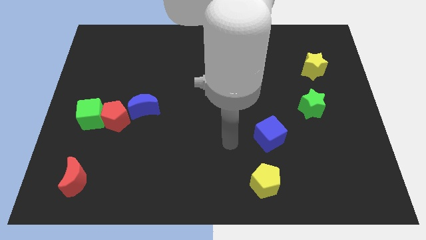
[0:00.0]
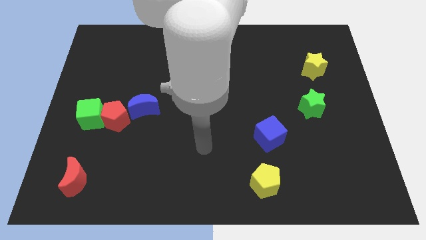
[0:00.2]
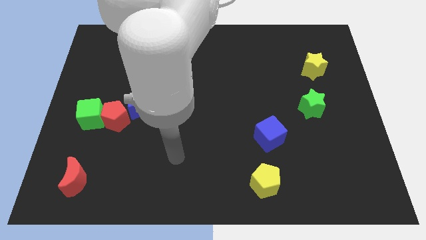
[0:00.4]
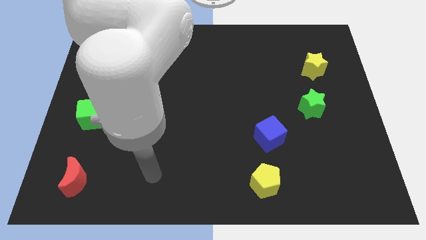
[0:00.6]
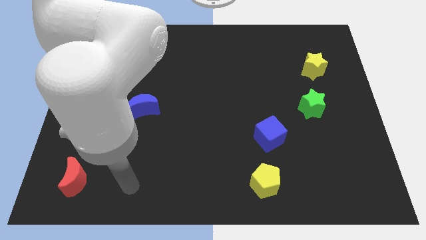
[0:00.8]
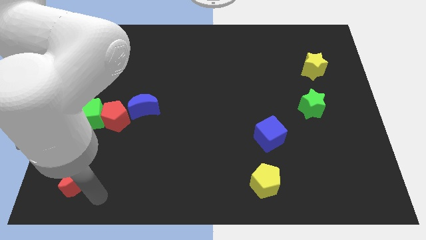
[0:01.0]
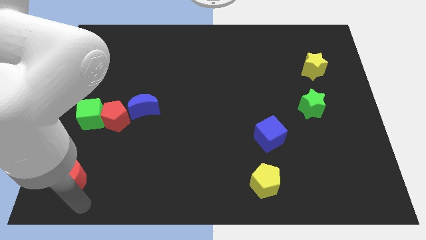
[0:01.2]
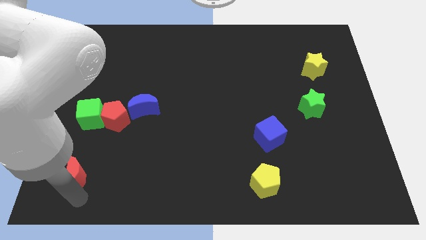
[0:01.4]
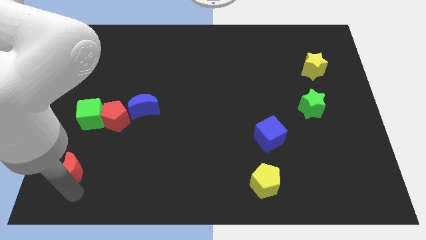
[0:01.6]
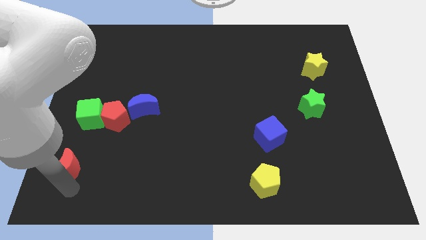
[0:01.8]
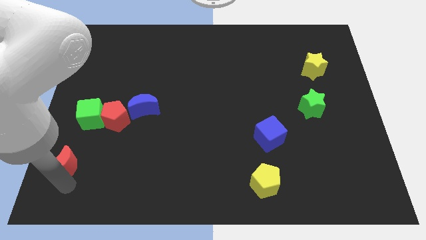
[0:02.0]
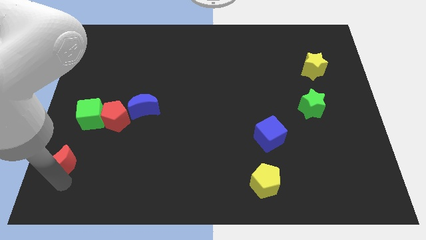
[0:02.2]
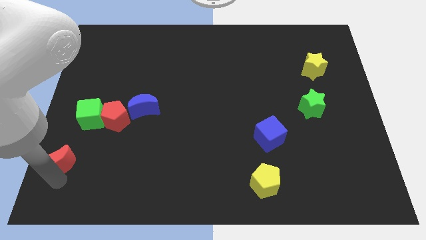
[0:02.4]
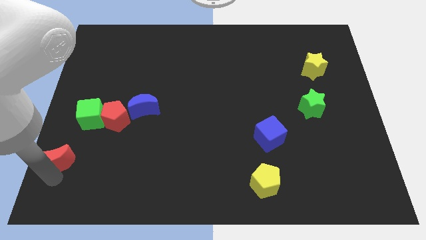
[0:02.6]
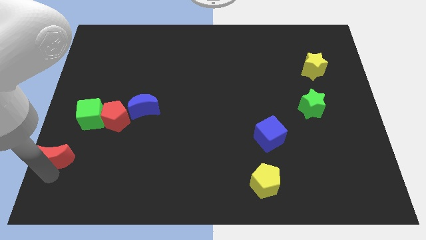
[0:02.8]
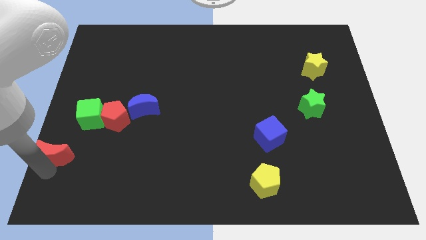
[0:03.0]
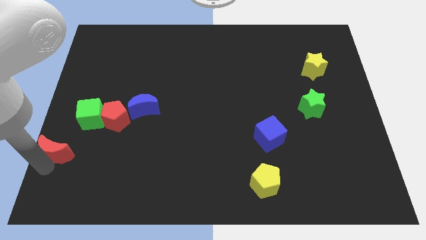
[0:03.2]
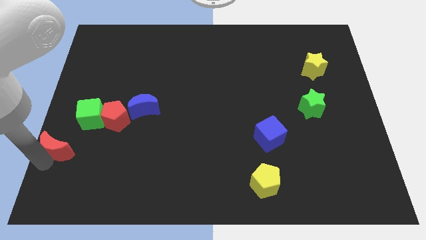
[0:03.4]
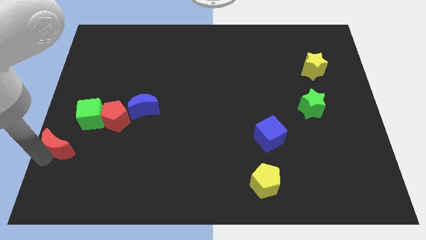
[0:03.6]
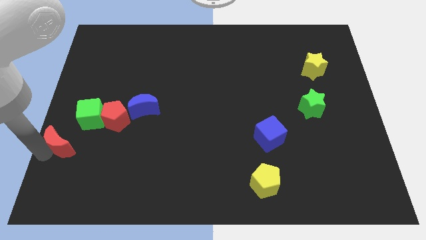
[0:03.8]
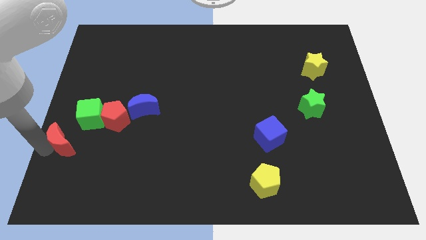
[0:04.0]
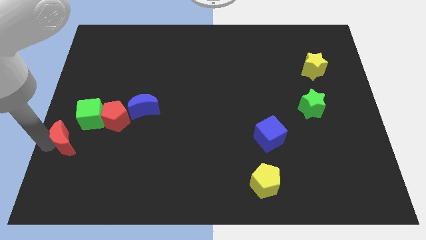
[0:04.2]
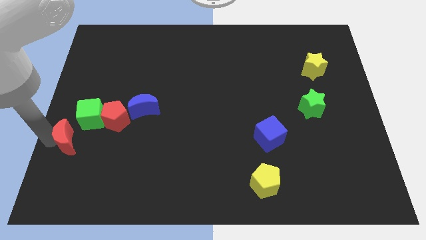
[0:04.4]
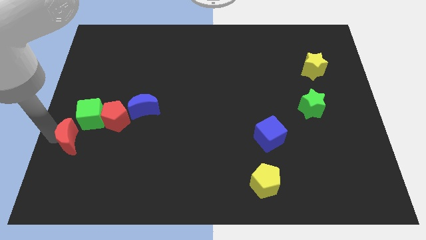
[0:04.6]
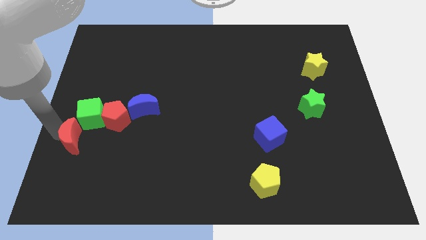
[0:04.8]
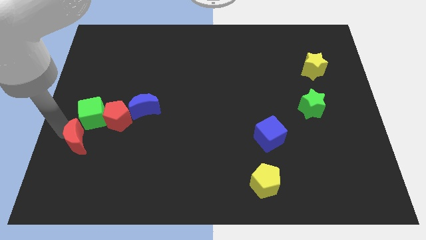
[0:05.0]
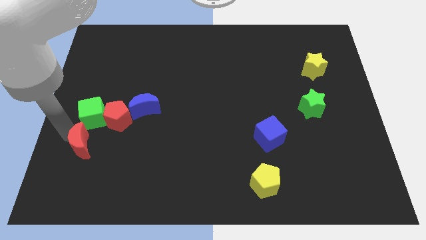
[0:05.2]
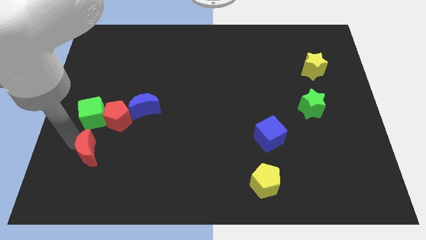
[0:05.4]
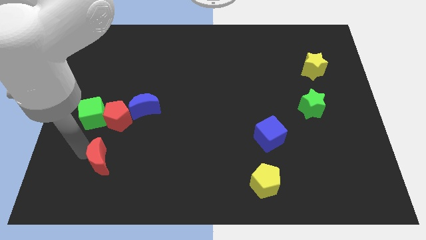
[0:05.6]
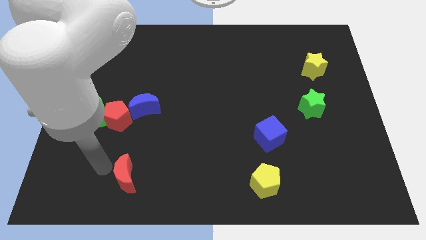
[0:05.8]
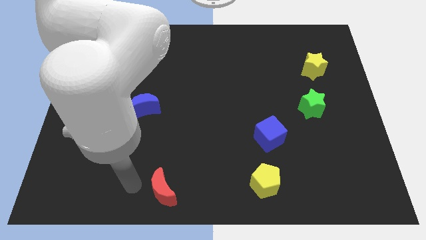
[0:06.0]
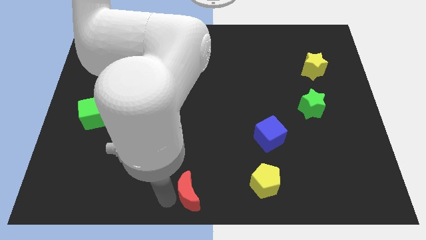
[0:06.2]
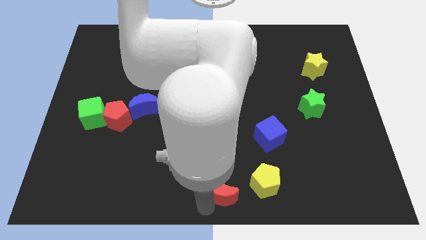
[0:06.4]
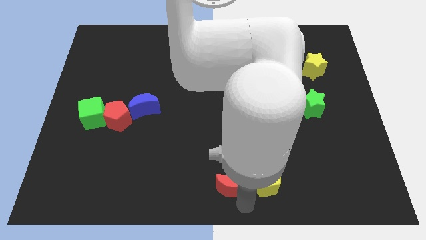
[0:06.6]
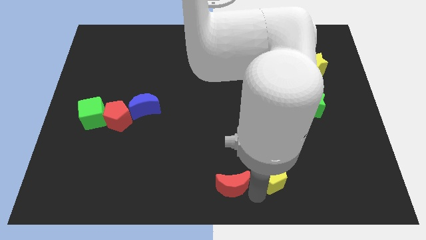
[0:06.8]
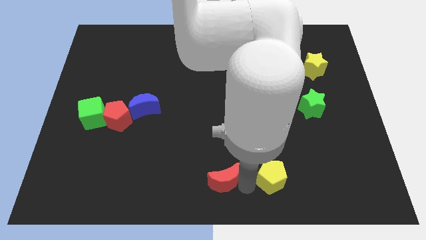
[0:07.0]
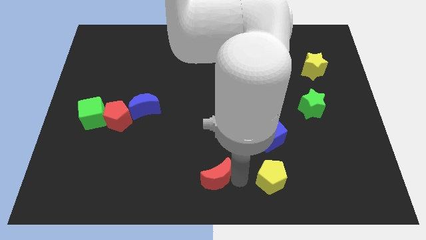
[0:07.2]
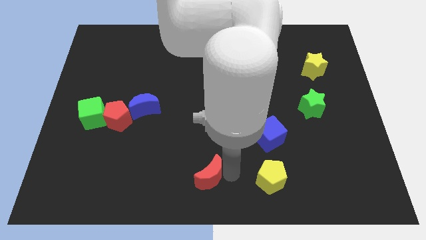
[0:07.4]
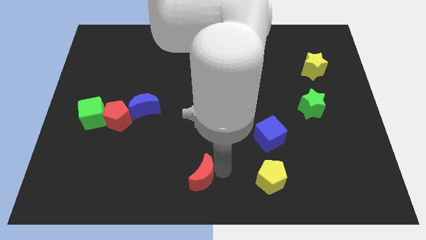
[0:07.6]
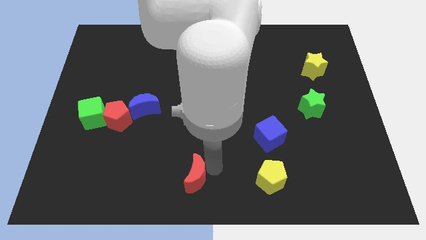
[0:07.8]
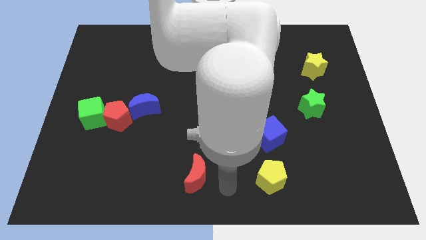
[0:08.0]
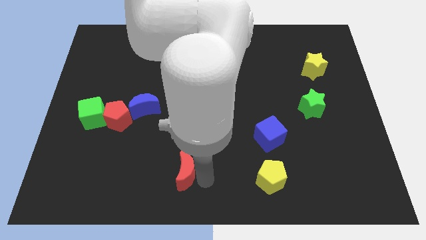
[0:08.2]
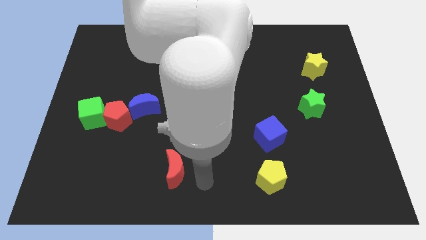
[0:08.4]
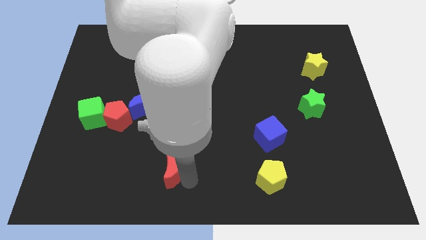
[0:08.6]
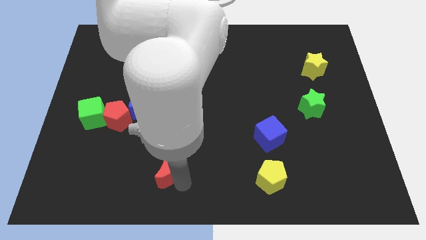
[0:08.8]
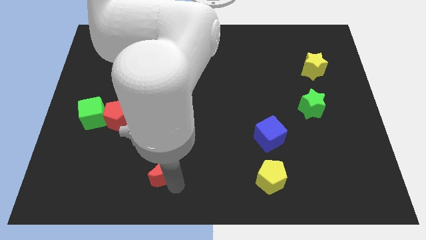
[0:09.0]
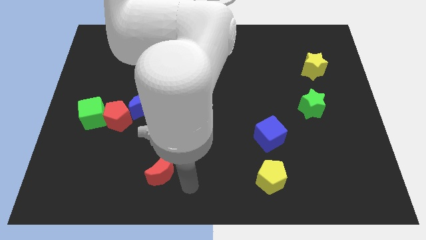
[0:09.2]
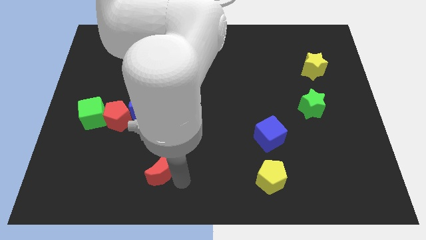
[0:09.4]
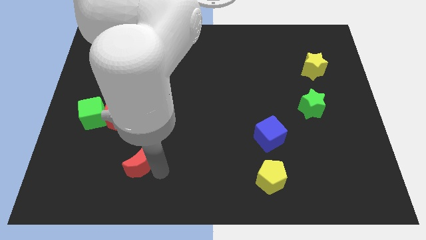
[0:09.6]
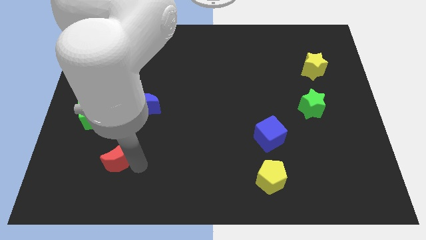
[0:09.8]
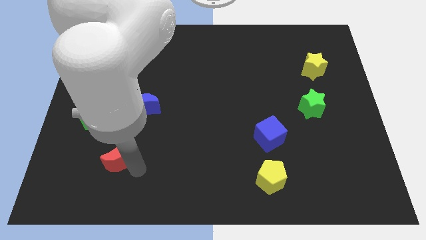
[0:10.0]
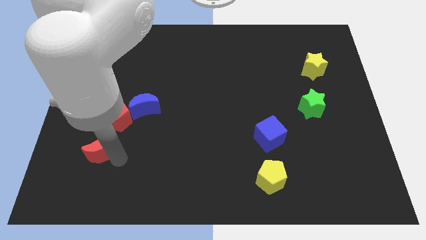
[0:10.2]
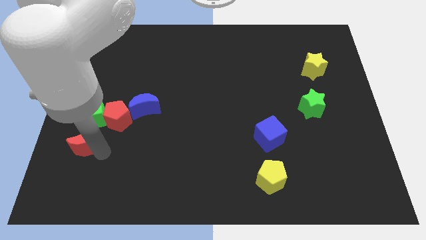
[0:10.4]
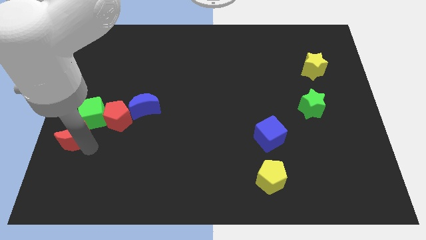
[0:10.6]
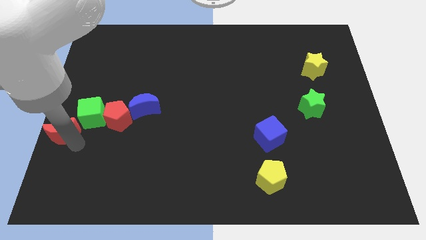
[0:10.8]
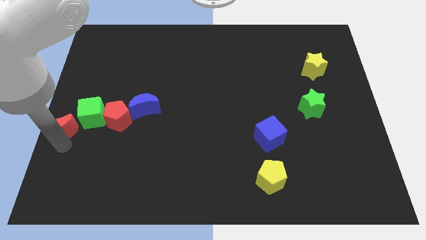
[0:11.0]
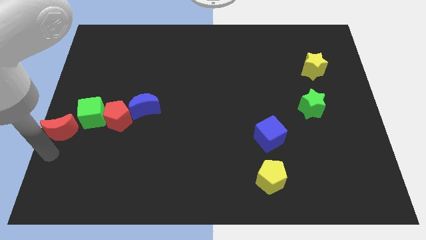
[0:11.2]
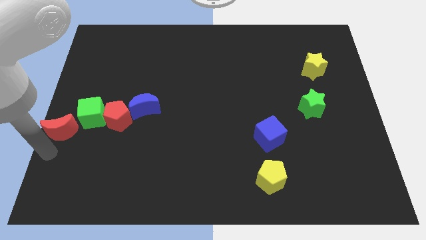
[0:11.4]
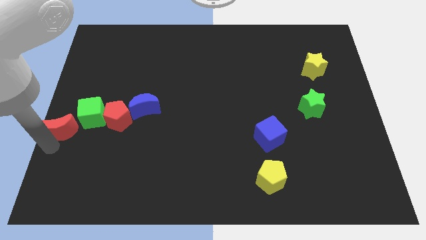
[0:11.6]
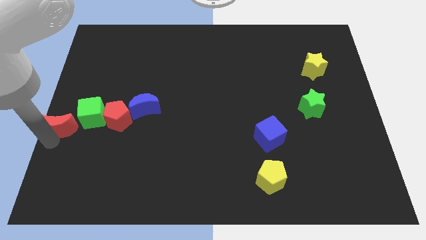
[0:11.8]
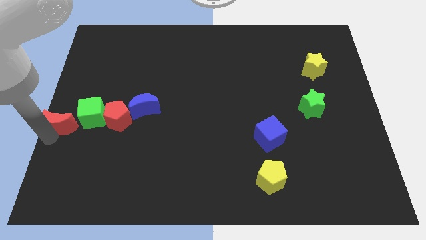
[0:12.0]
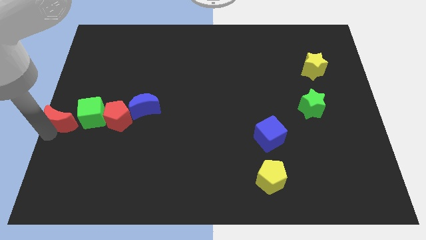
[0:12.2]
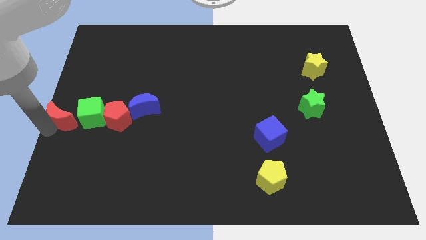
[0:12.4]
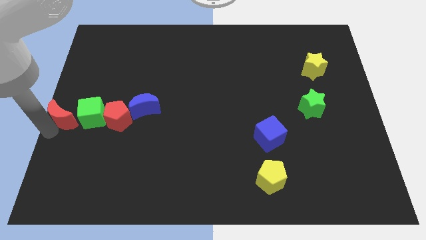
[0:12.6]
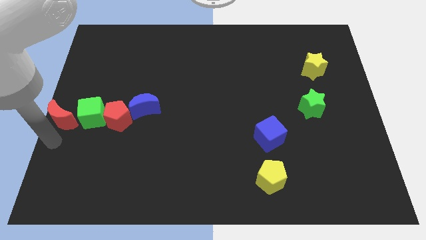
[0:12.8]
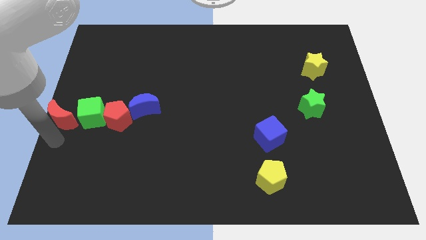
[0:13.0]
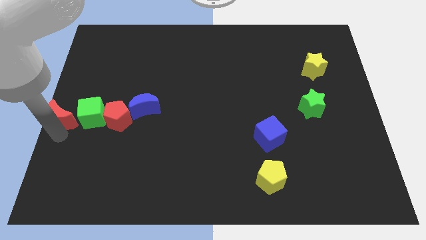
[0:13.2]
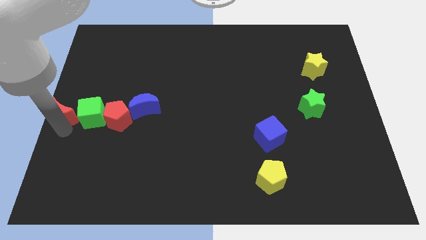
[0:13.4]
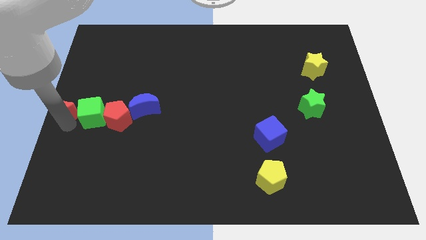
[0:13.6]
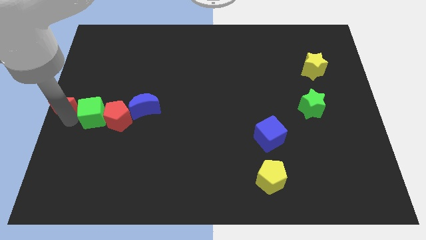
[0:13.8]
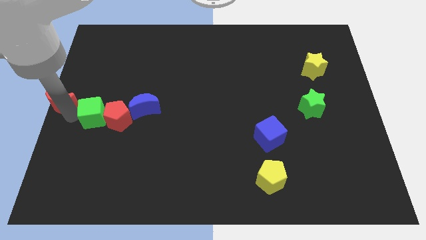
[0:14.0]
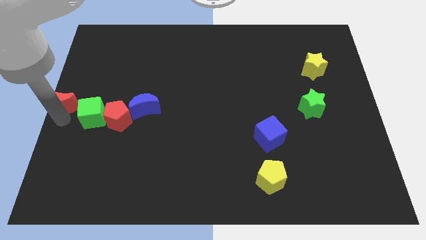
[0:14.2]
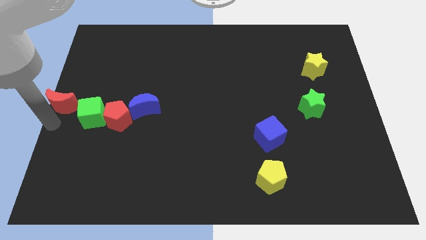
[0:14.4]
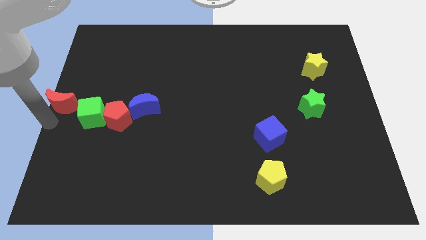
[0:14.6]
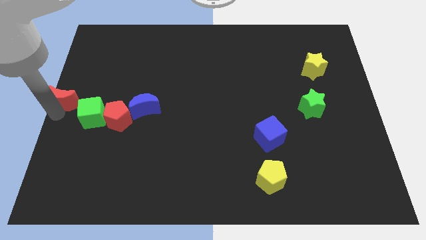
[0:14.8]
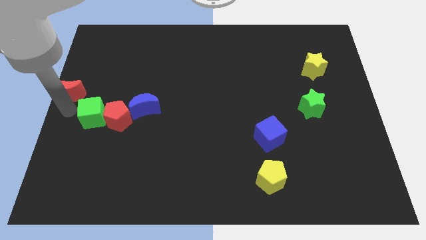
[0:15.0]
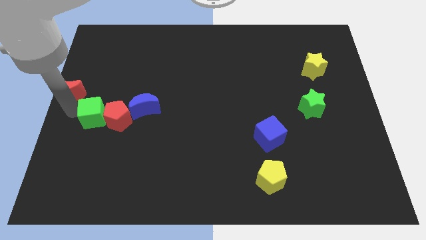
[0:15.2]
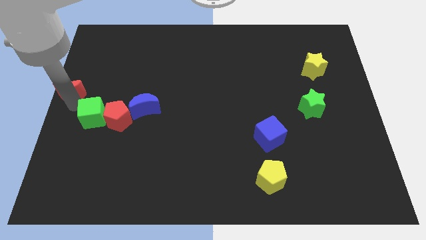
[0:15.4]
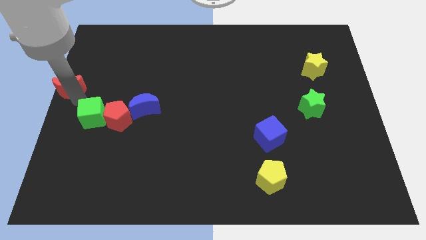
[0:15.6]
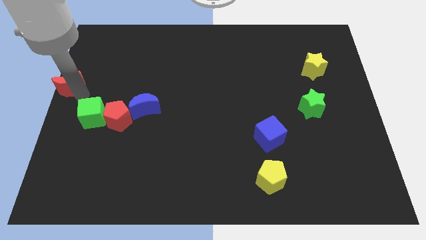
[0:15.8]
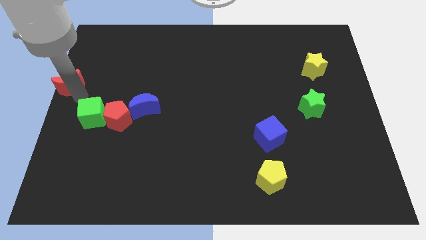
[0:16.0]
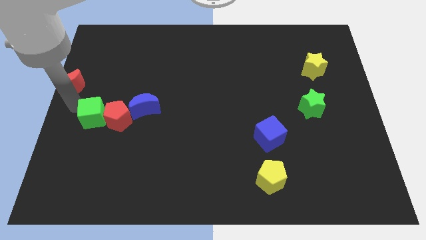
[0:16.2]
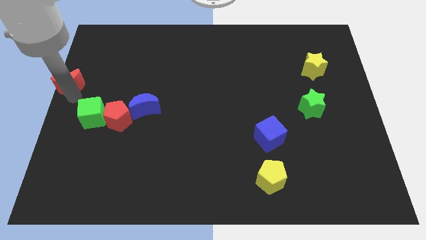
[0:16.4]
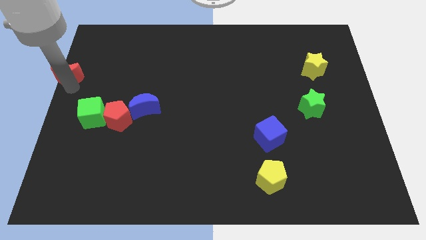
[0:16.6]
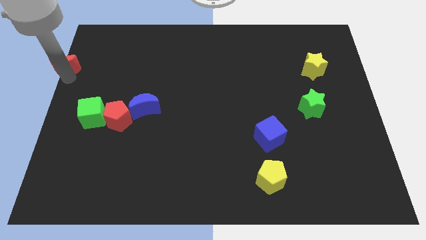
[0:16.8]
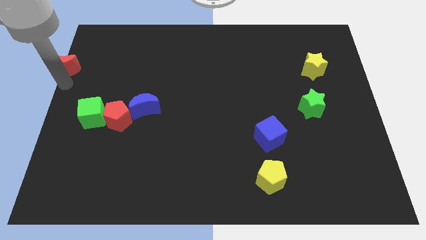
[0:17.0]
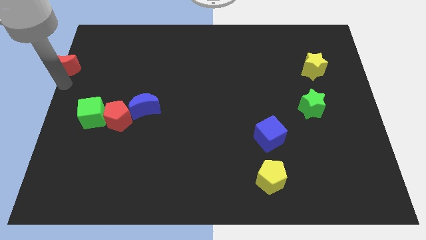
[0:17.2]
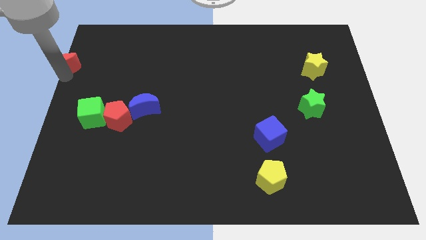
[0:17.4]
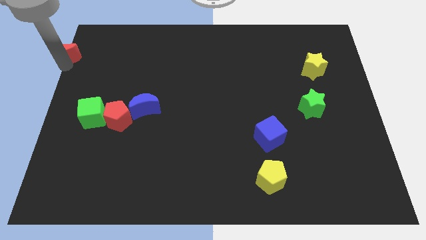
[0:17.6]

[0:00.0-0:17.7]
push the red moon to the upper left corner
